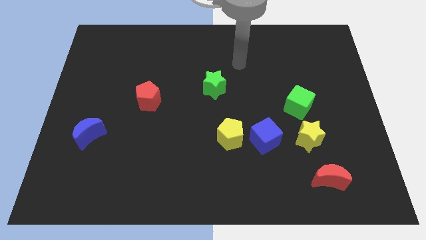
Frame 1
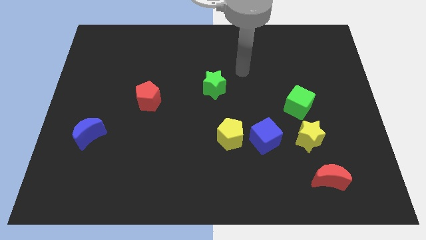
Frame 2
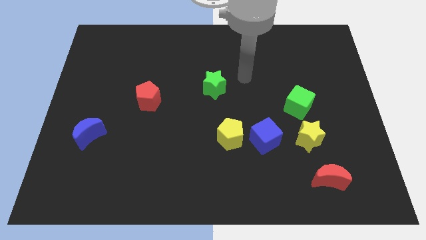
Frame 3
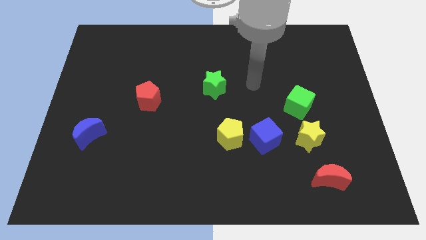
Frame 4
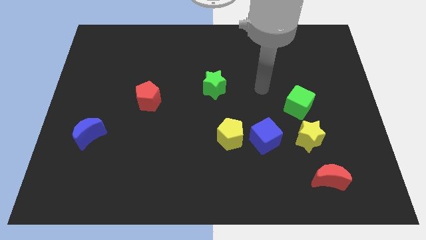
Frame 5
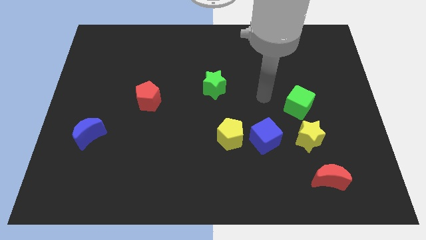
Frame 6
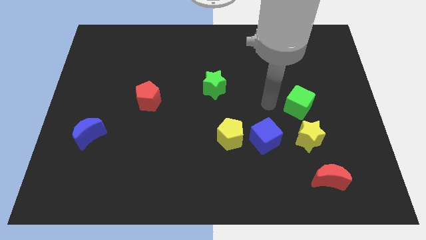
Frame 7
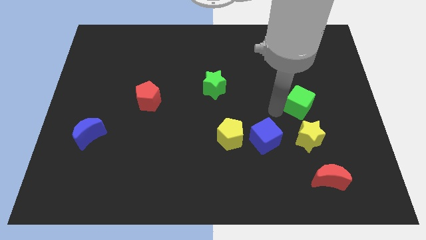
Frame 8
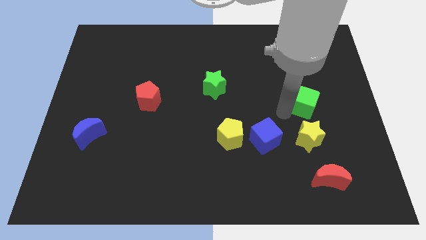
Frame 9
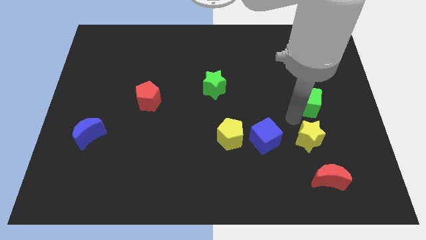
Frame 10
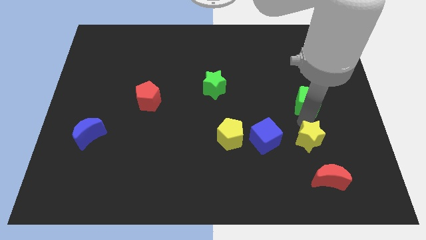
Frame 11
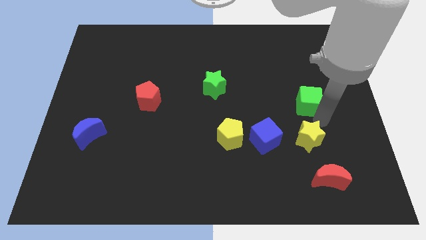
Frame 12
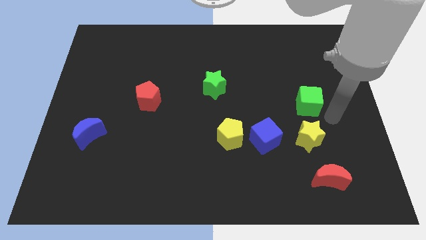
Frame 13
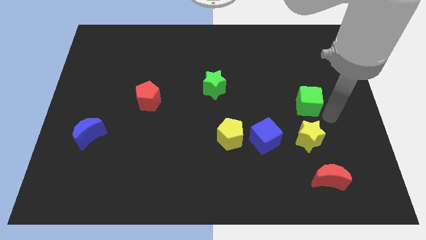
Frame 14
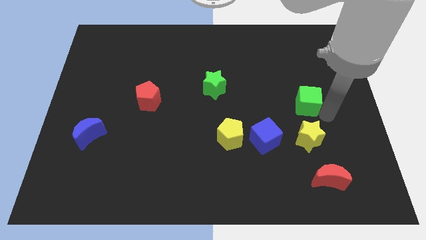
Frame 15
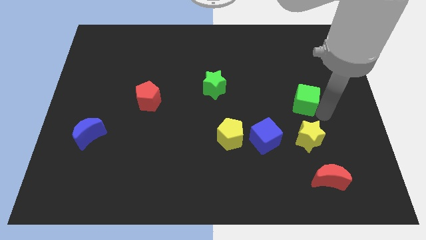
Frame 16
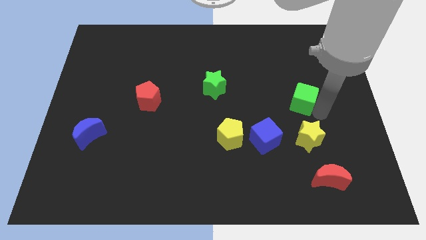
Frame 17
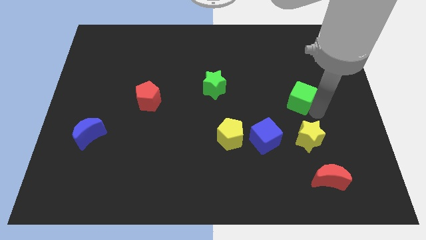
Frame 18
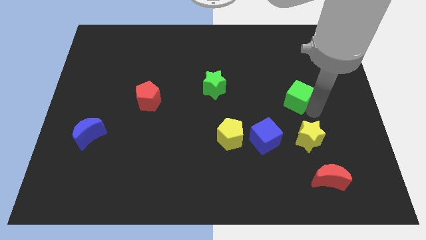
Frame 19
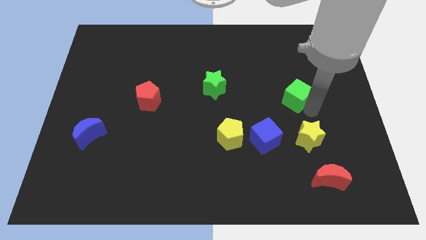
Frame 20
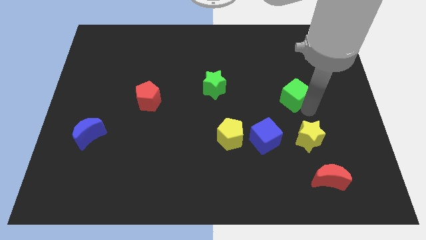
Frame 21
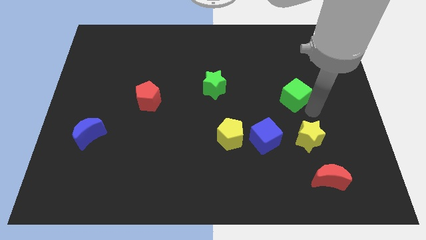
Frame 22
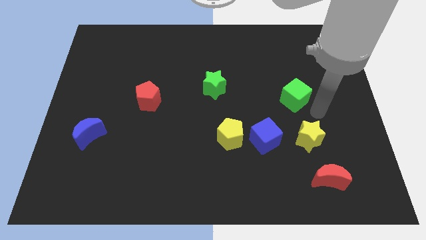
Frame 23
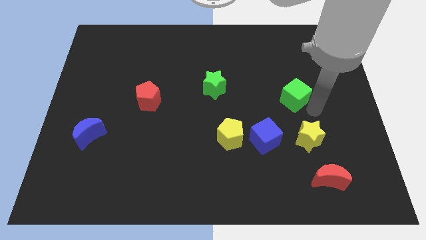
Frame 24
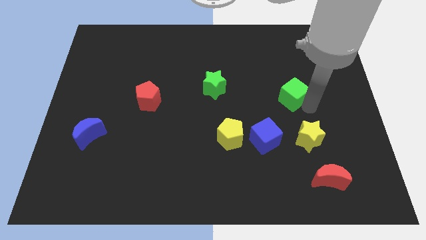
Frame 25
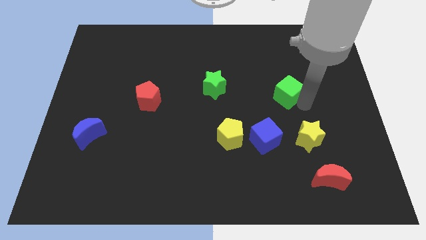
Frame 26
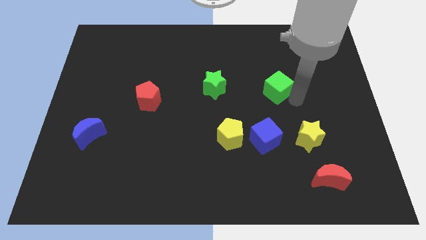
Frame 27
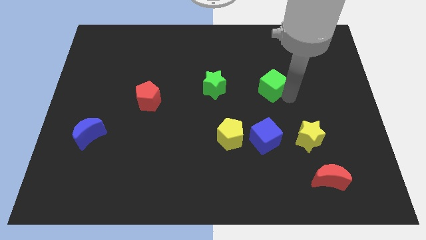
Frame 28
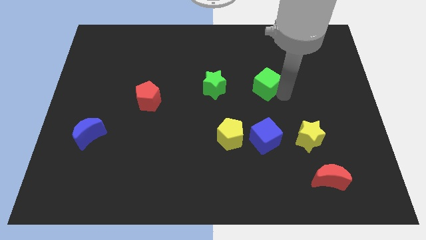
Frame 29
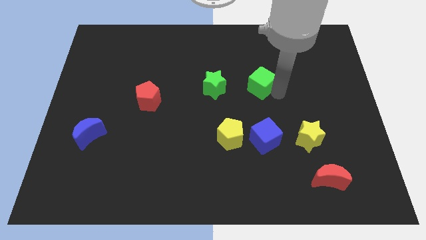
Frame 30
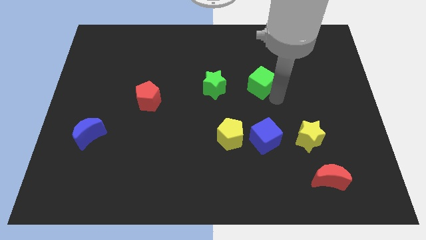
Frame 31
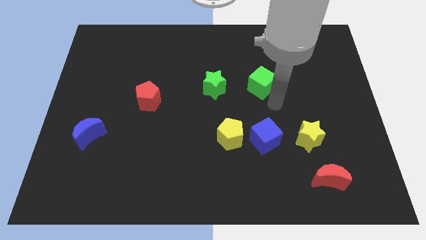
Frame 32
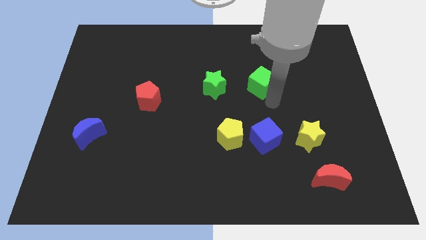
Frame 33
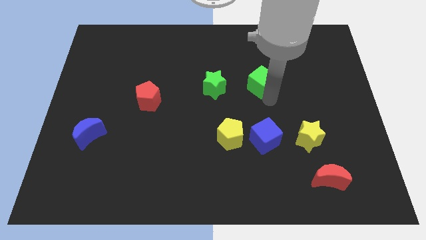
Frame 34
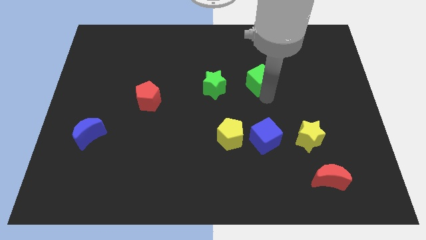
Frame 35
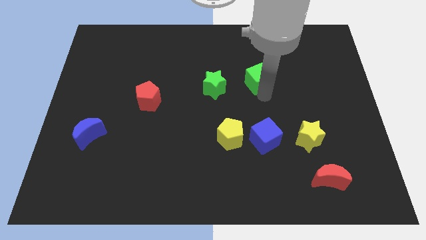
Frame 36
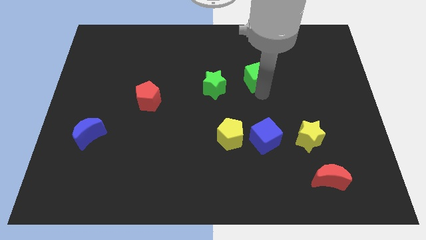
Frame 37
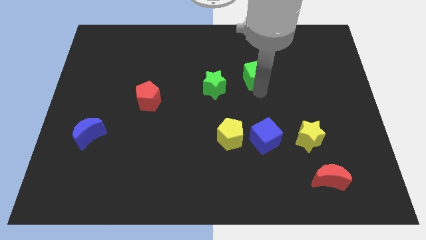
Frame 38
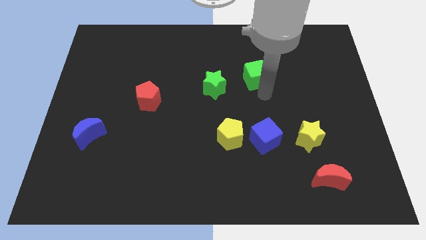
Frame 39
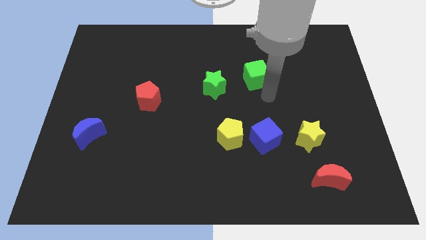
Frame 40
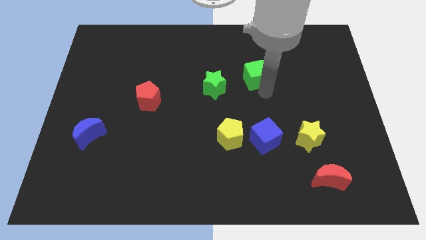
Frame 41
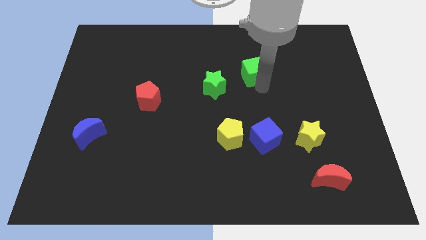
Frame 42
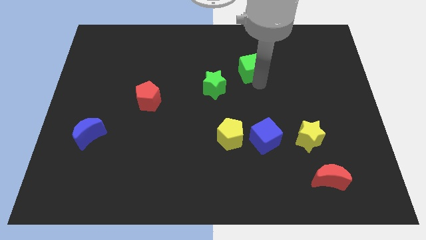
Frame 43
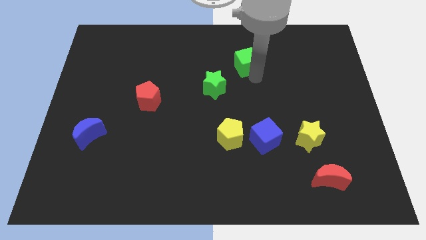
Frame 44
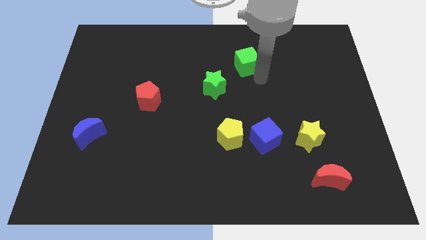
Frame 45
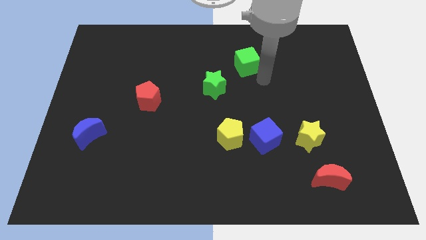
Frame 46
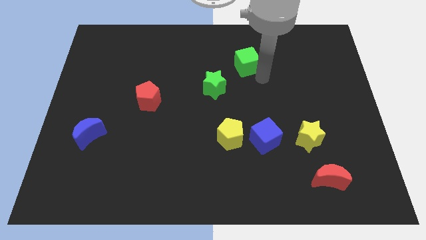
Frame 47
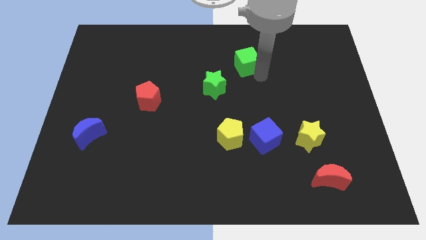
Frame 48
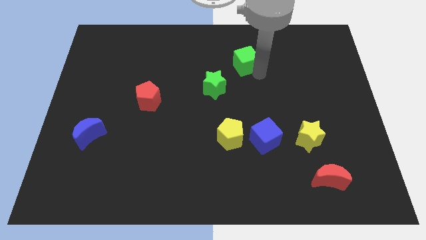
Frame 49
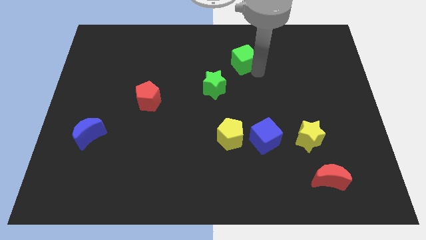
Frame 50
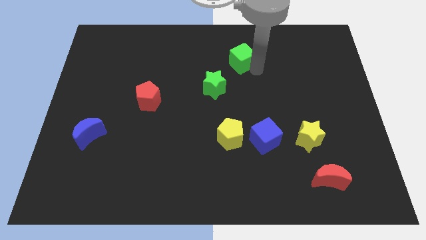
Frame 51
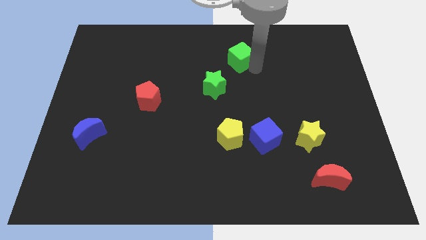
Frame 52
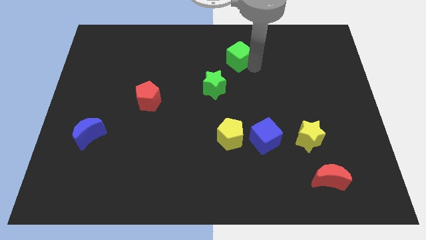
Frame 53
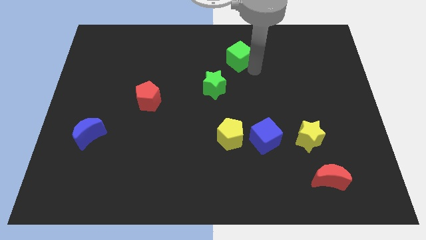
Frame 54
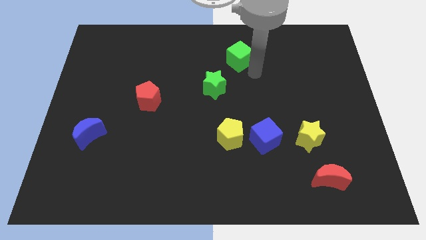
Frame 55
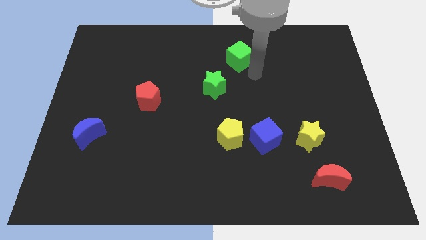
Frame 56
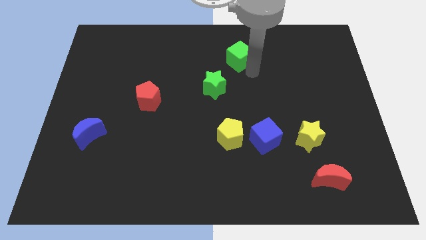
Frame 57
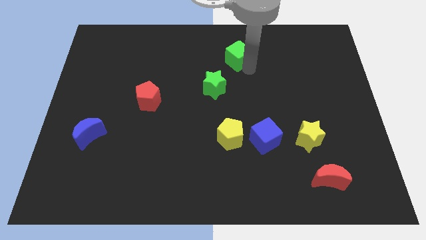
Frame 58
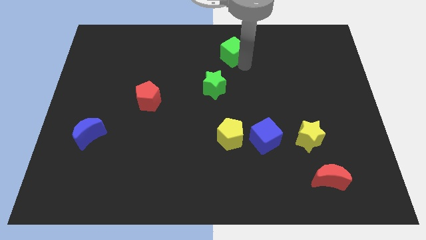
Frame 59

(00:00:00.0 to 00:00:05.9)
move the green cube to the towards your base

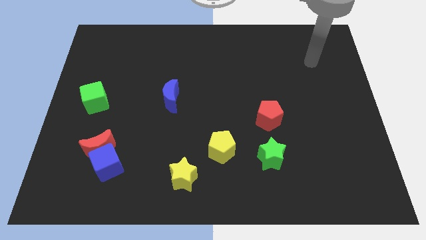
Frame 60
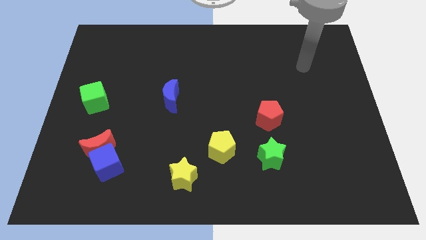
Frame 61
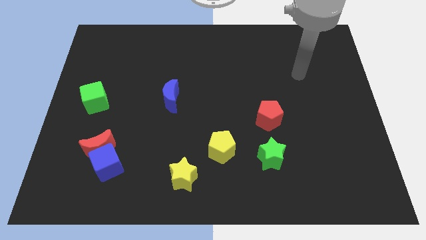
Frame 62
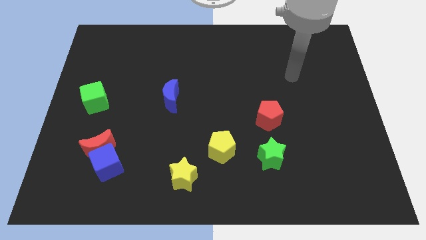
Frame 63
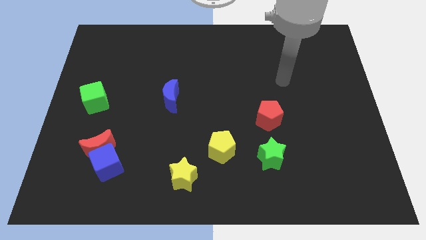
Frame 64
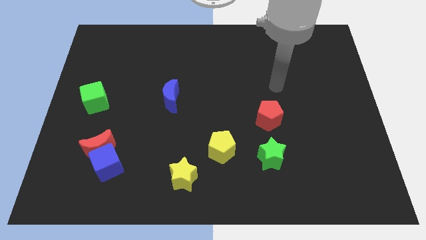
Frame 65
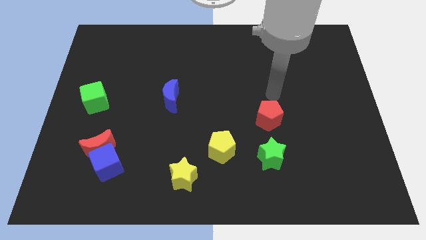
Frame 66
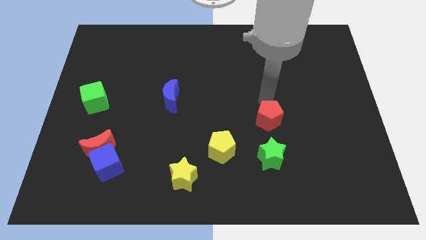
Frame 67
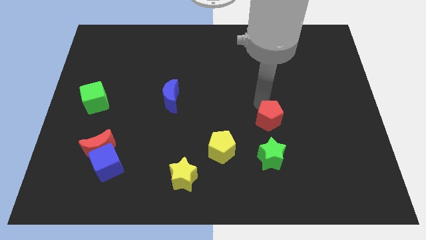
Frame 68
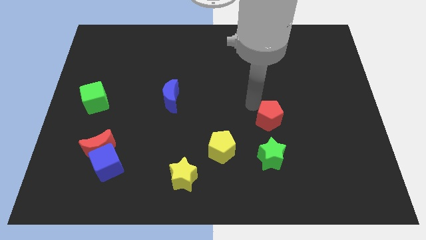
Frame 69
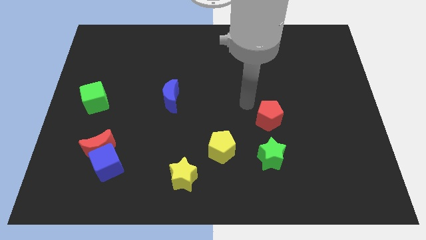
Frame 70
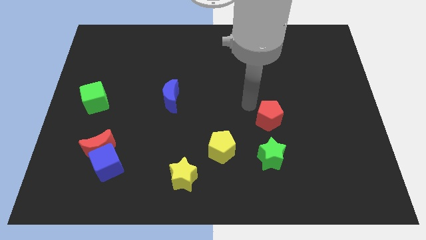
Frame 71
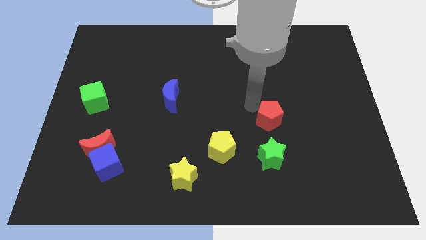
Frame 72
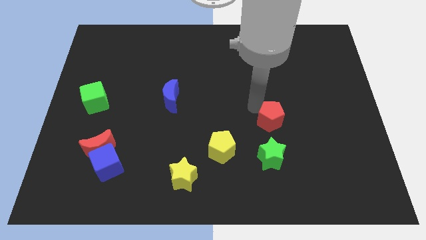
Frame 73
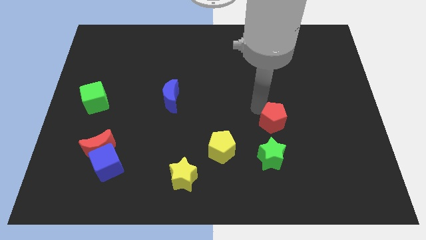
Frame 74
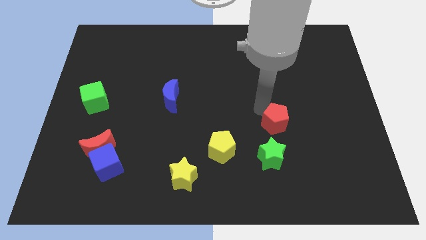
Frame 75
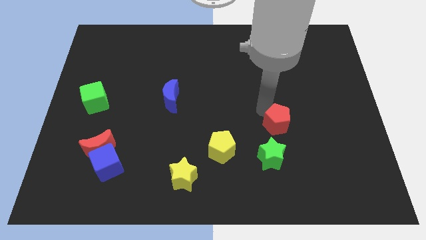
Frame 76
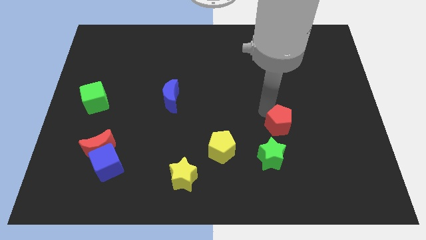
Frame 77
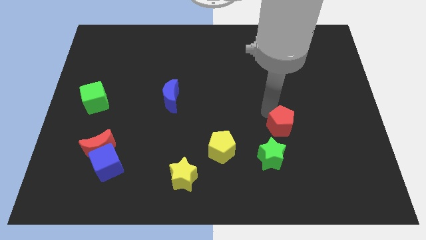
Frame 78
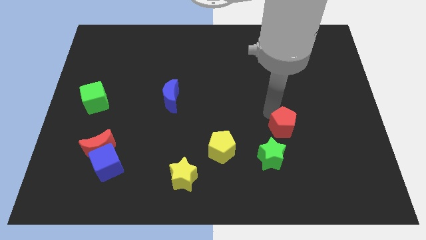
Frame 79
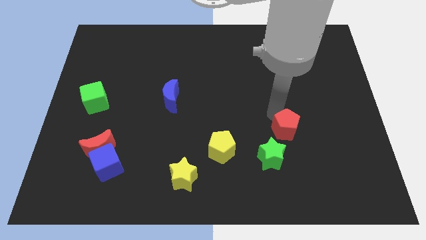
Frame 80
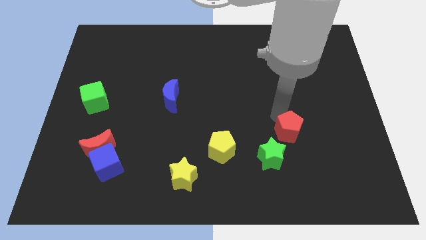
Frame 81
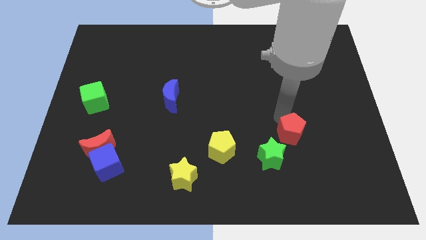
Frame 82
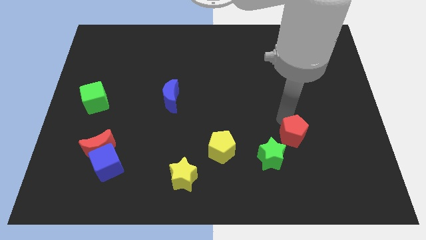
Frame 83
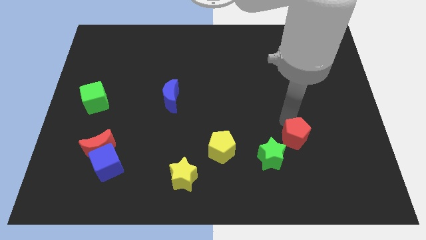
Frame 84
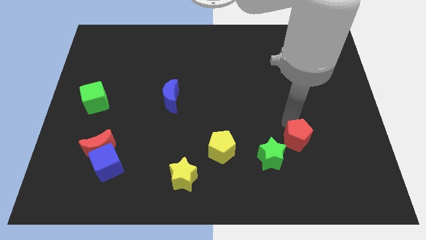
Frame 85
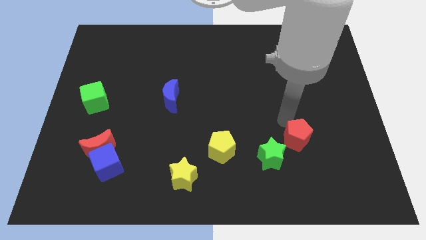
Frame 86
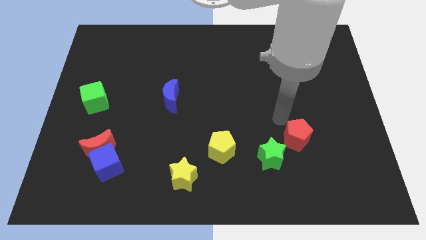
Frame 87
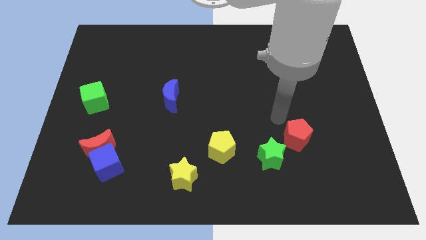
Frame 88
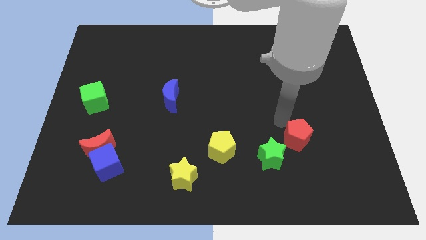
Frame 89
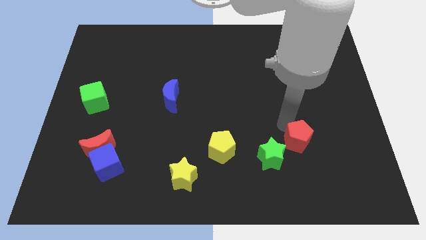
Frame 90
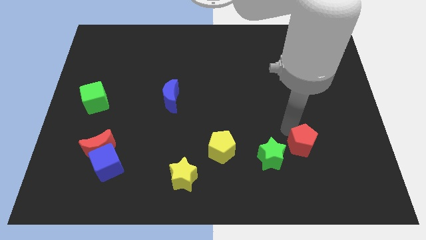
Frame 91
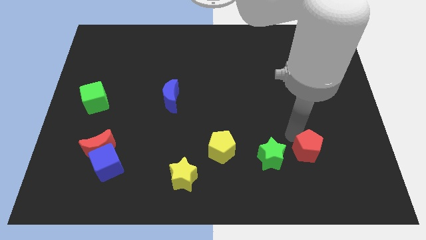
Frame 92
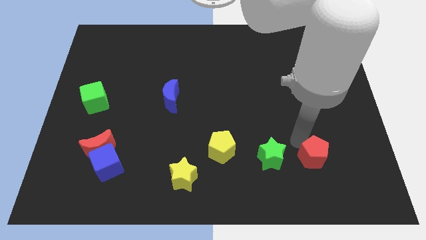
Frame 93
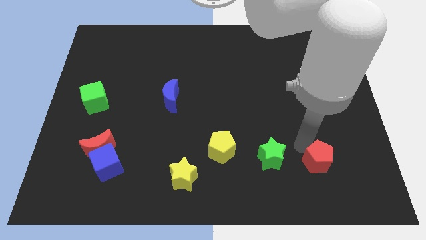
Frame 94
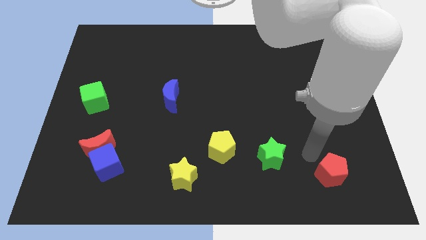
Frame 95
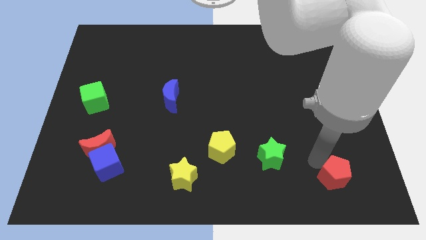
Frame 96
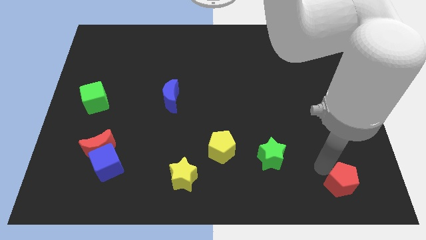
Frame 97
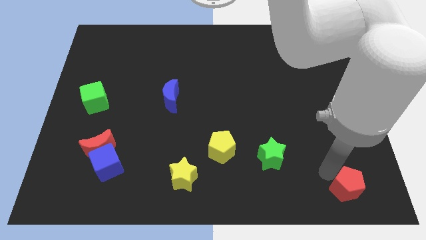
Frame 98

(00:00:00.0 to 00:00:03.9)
put the red pentagon to the bottom right of the board
